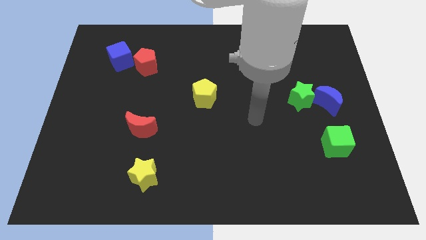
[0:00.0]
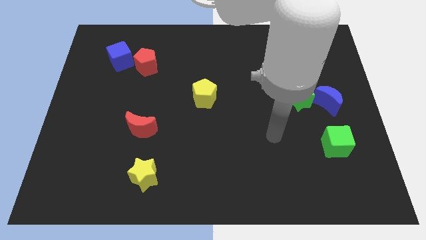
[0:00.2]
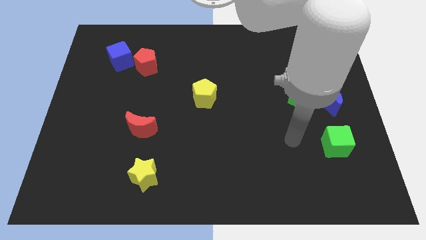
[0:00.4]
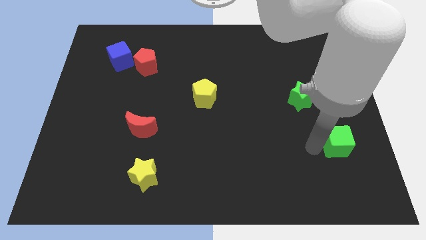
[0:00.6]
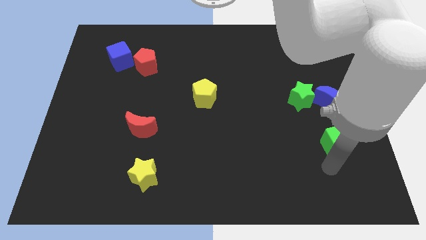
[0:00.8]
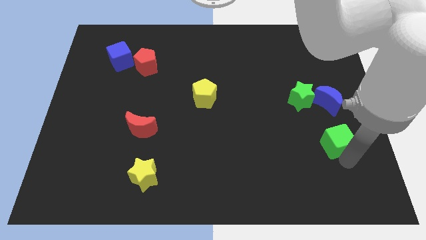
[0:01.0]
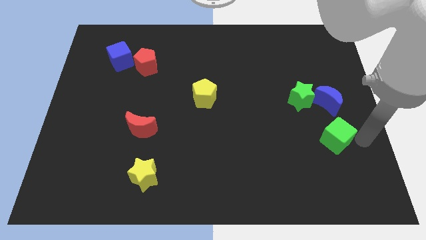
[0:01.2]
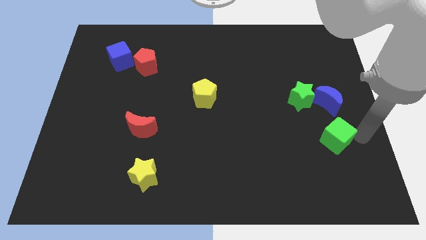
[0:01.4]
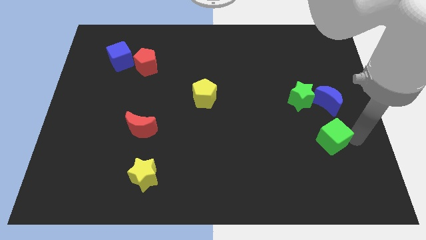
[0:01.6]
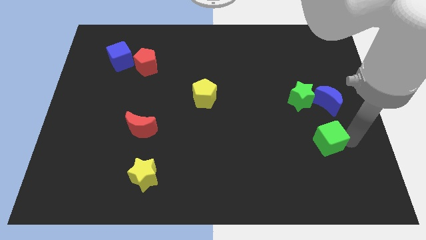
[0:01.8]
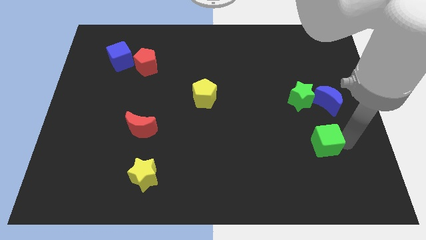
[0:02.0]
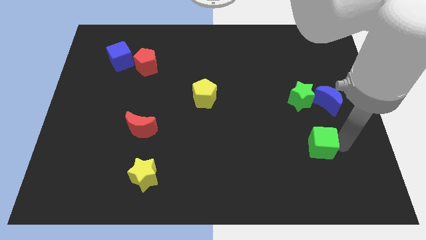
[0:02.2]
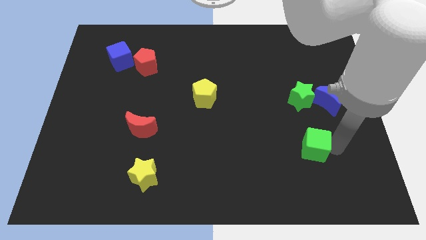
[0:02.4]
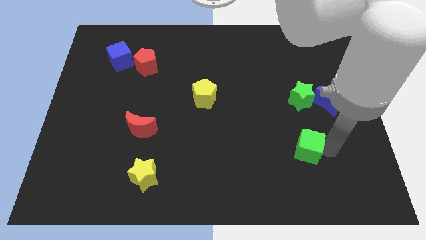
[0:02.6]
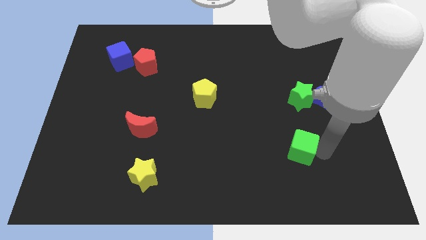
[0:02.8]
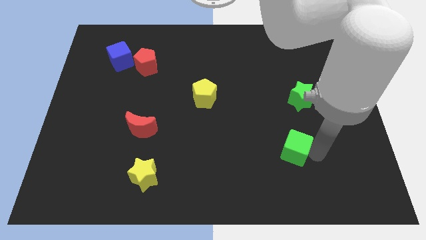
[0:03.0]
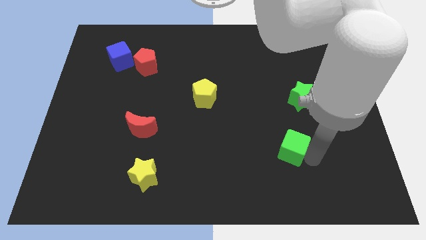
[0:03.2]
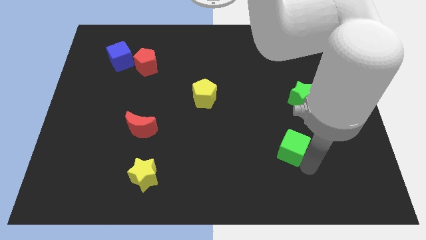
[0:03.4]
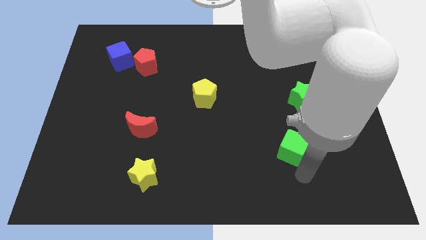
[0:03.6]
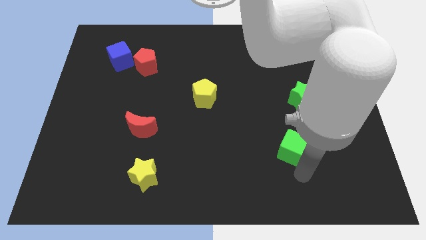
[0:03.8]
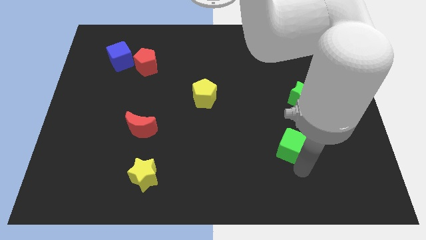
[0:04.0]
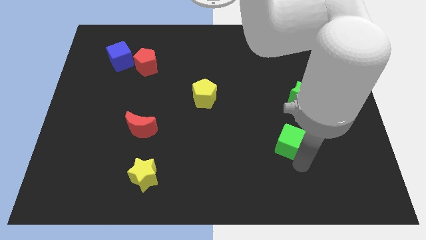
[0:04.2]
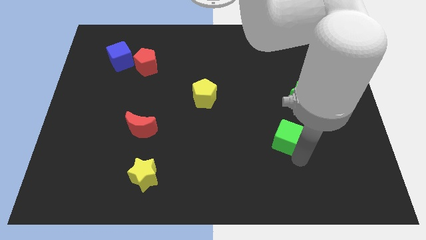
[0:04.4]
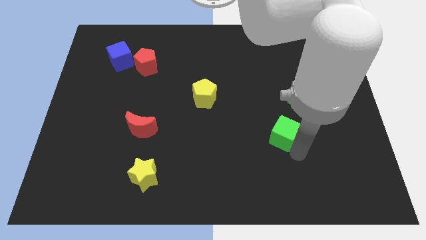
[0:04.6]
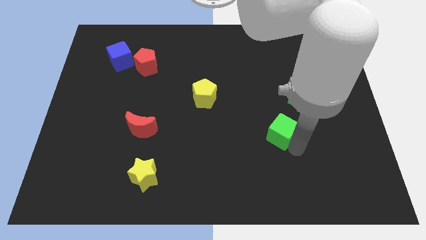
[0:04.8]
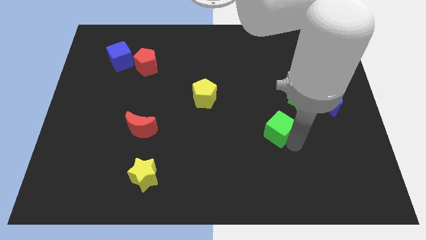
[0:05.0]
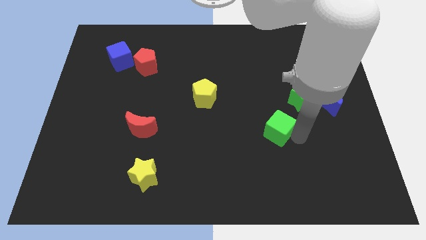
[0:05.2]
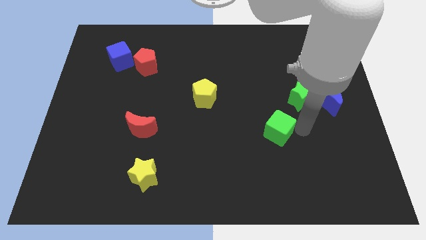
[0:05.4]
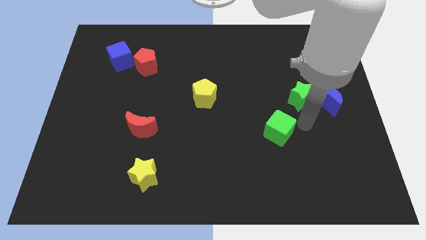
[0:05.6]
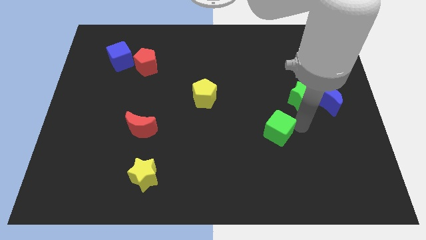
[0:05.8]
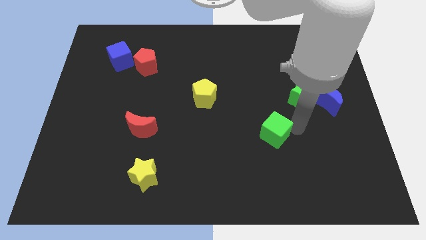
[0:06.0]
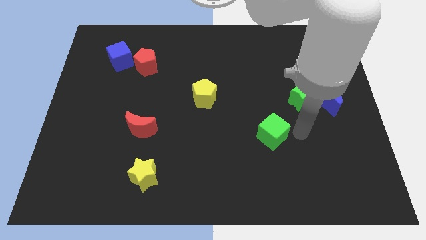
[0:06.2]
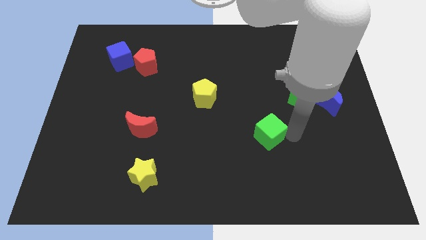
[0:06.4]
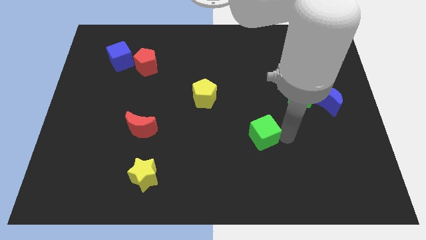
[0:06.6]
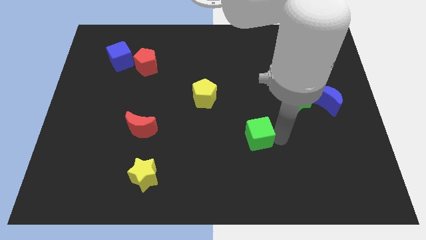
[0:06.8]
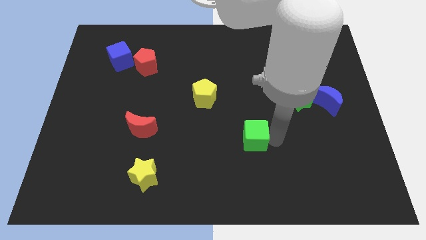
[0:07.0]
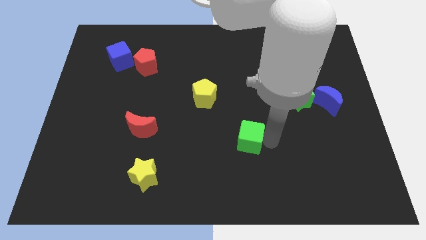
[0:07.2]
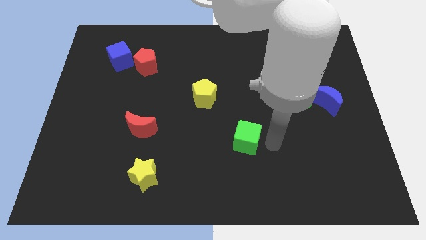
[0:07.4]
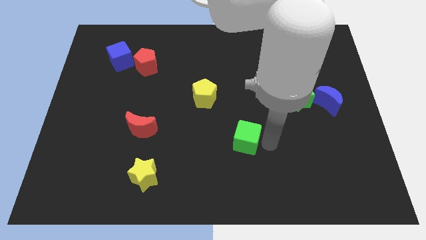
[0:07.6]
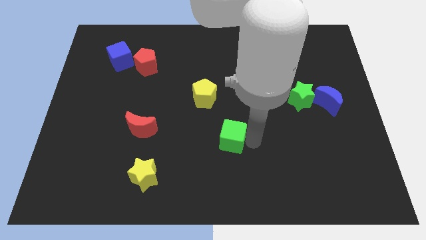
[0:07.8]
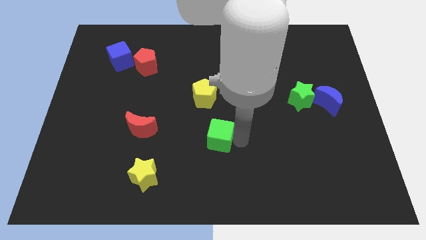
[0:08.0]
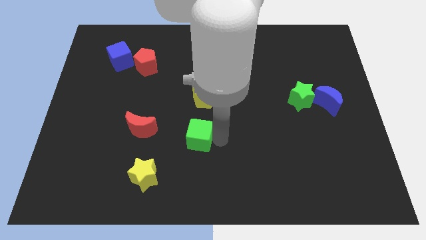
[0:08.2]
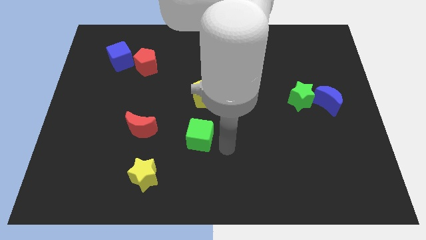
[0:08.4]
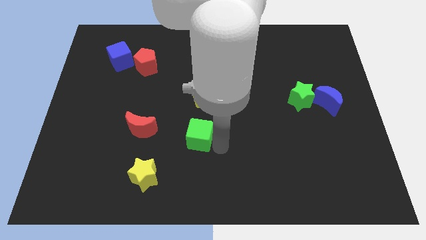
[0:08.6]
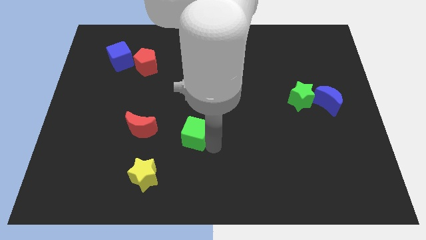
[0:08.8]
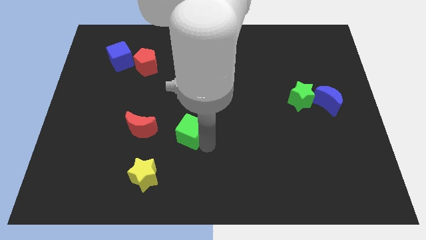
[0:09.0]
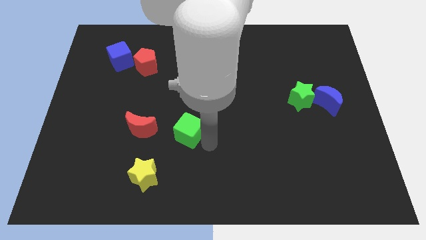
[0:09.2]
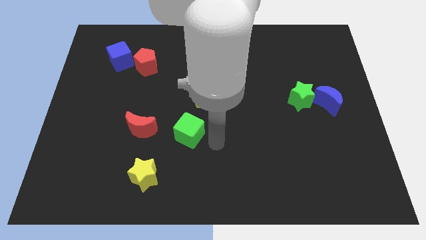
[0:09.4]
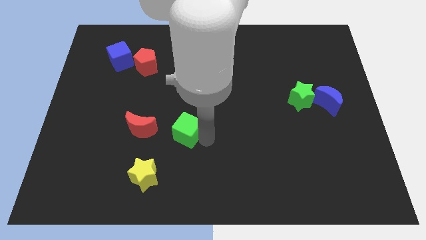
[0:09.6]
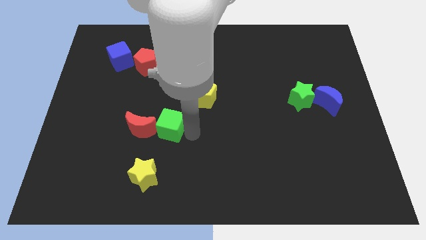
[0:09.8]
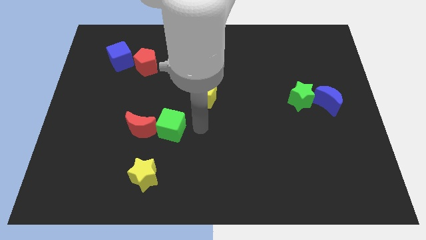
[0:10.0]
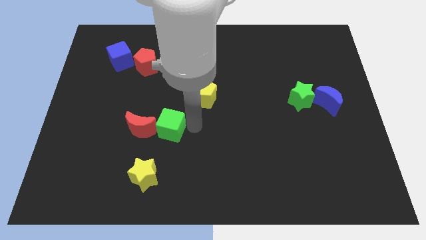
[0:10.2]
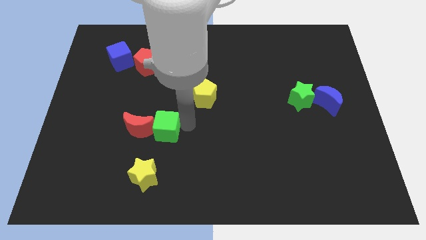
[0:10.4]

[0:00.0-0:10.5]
move the green cube to the red moon

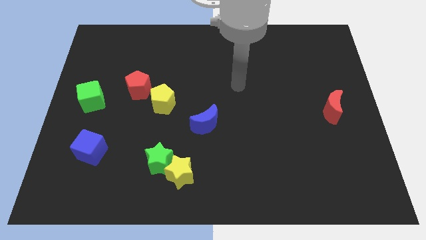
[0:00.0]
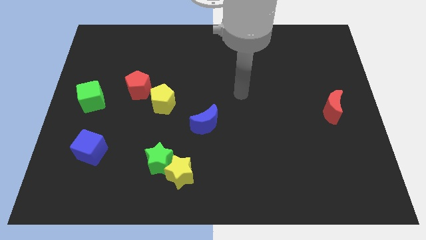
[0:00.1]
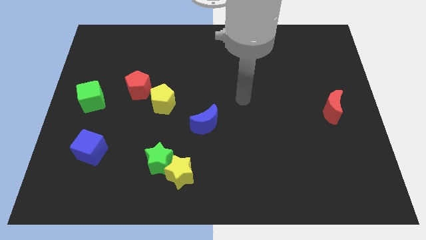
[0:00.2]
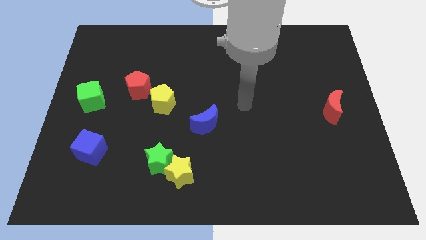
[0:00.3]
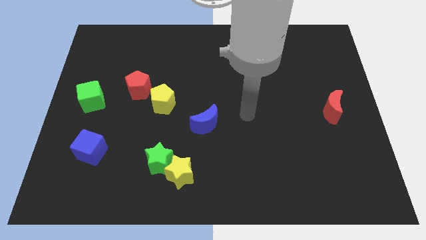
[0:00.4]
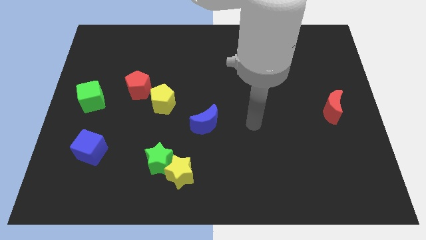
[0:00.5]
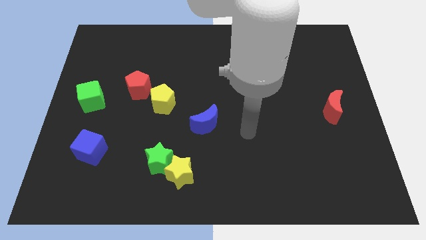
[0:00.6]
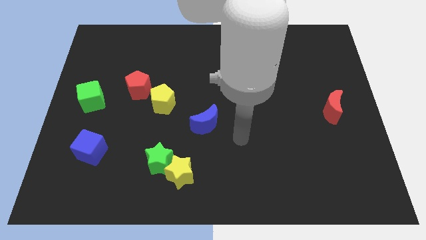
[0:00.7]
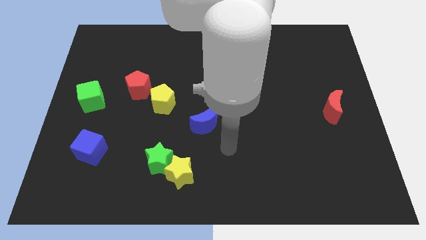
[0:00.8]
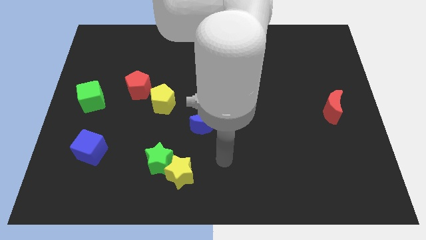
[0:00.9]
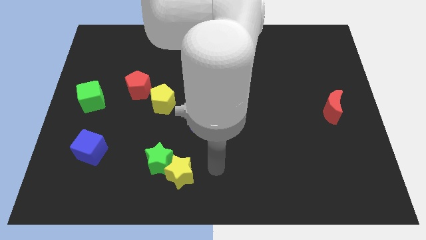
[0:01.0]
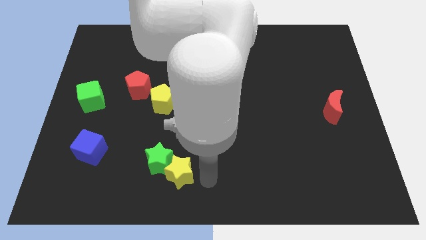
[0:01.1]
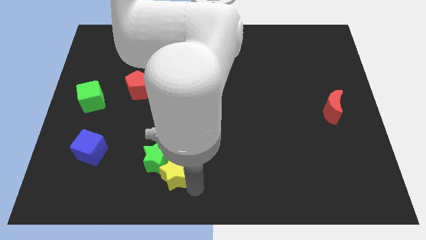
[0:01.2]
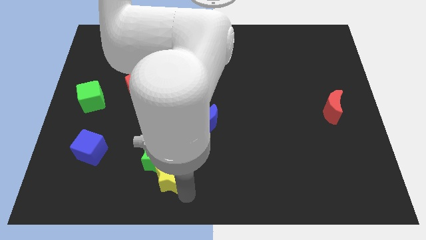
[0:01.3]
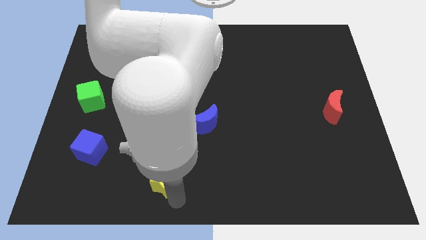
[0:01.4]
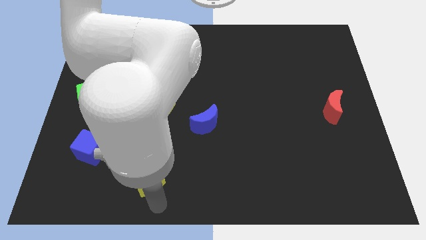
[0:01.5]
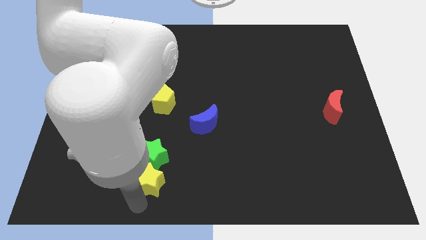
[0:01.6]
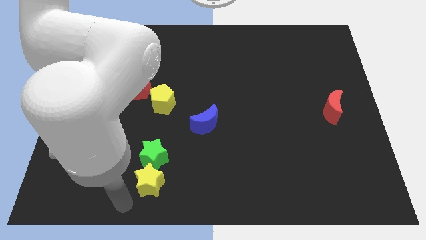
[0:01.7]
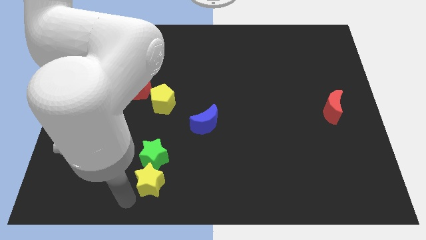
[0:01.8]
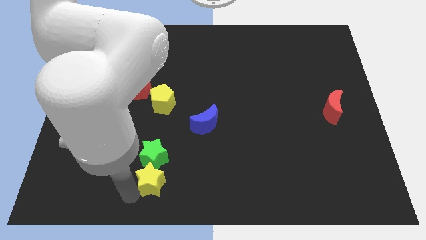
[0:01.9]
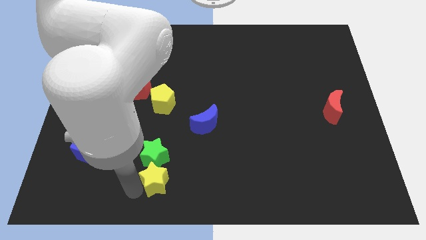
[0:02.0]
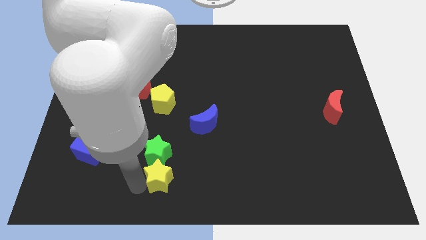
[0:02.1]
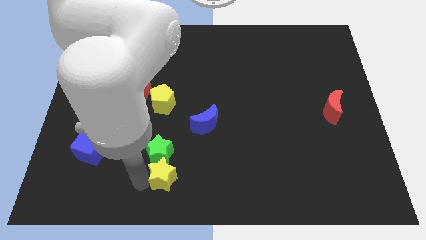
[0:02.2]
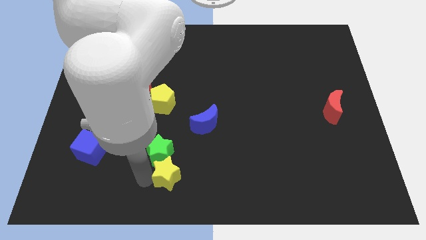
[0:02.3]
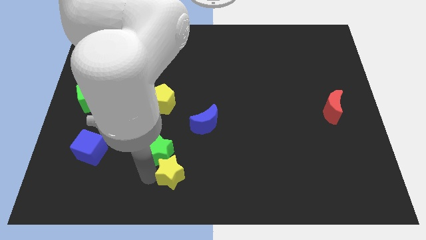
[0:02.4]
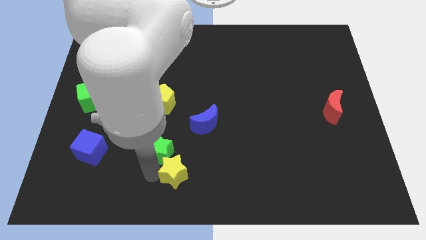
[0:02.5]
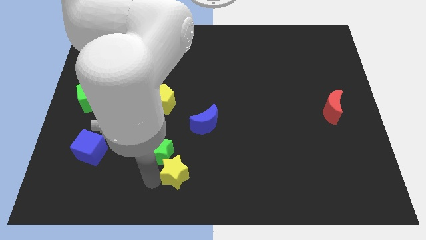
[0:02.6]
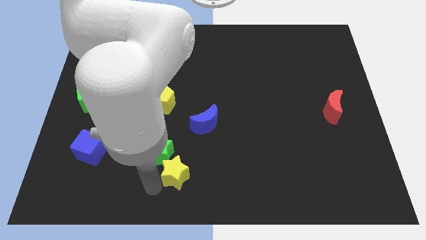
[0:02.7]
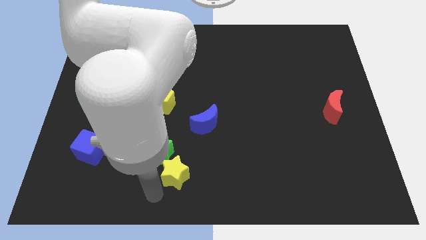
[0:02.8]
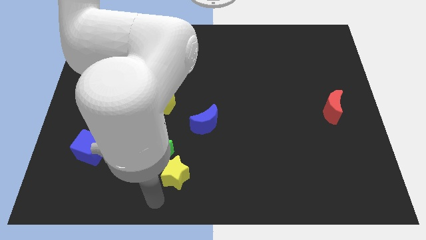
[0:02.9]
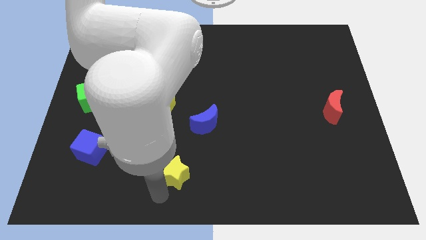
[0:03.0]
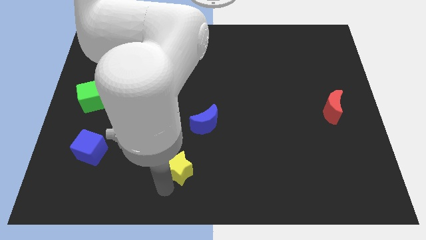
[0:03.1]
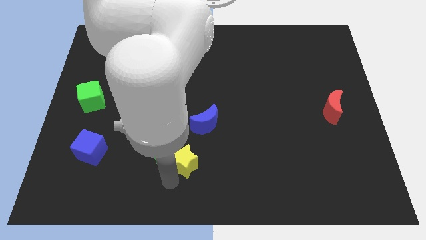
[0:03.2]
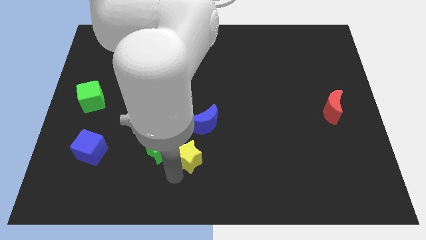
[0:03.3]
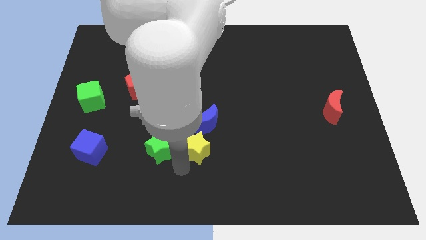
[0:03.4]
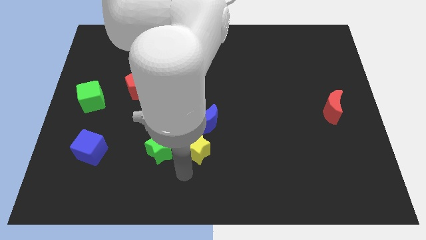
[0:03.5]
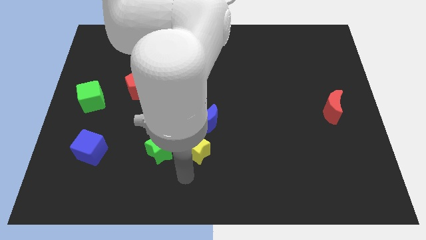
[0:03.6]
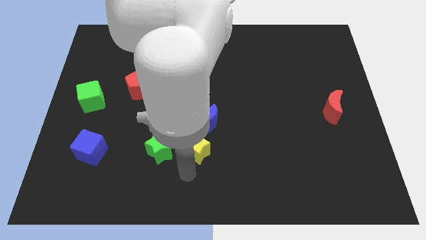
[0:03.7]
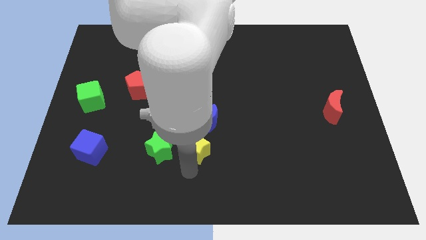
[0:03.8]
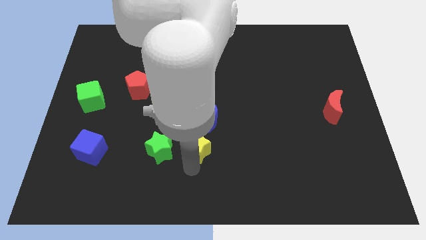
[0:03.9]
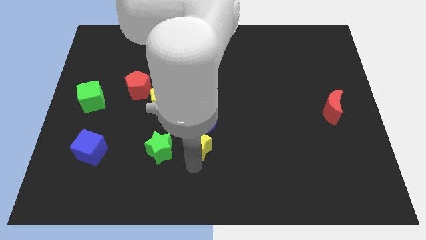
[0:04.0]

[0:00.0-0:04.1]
put the yellow star next to the blue moon
